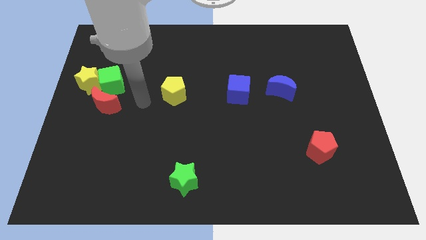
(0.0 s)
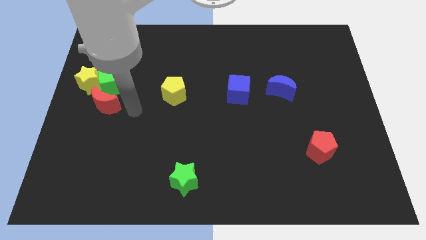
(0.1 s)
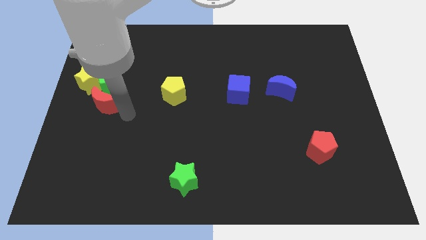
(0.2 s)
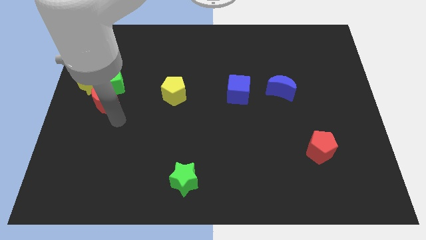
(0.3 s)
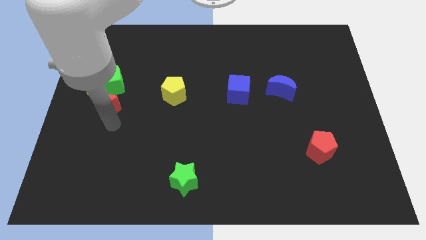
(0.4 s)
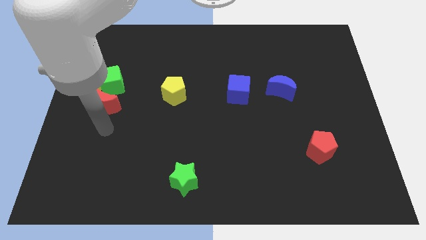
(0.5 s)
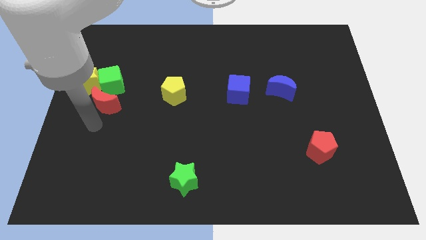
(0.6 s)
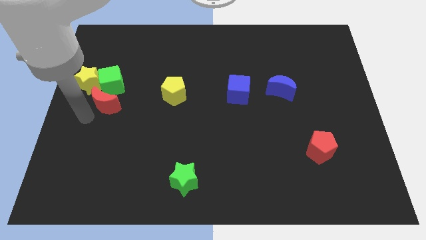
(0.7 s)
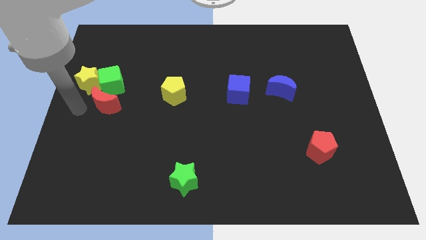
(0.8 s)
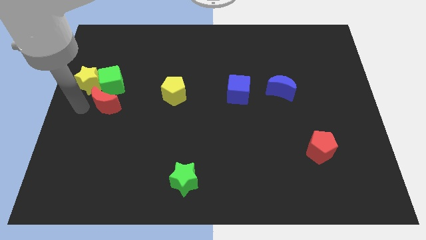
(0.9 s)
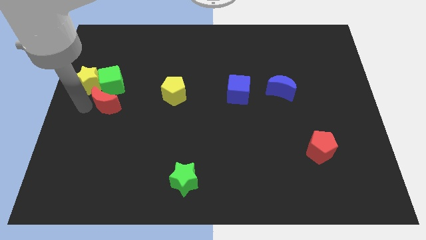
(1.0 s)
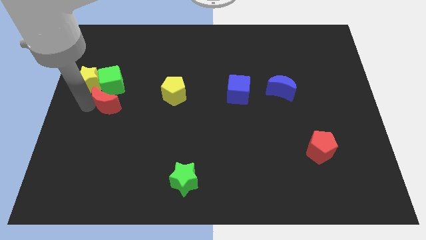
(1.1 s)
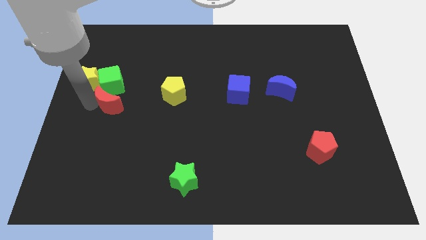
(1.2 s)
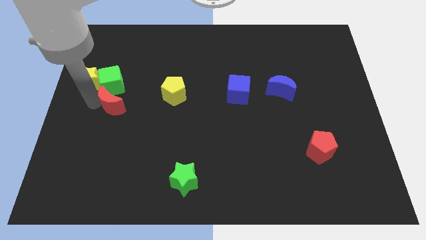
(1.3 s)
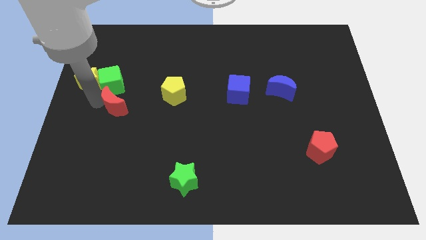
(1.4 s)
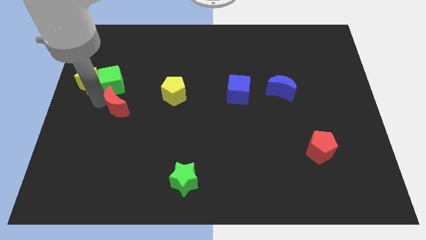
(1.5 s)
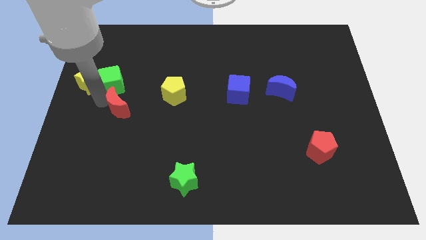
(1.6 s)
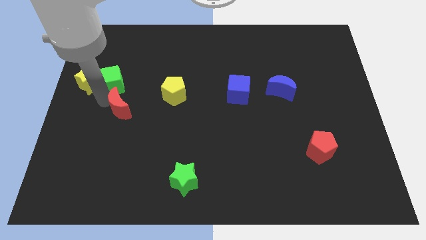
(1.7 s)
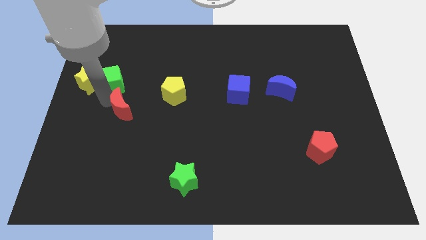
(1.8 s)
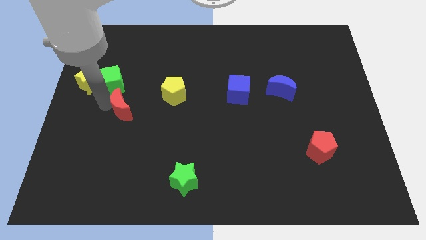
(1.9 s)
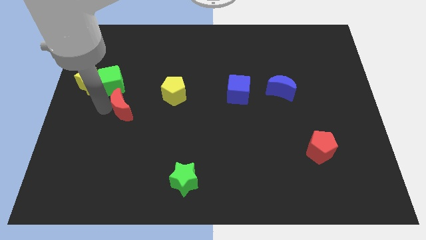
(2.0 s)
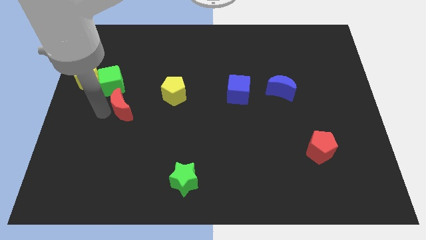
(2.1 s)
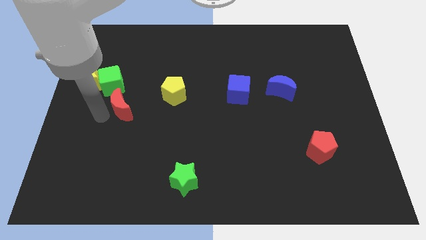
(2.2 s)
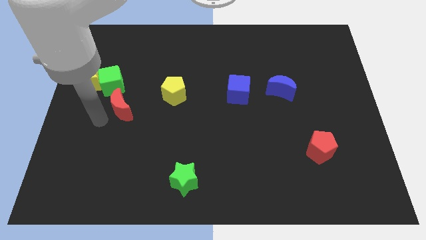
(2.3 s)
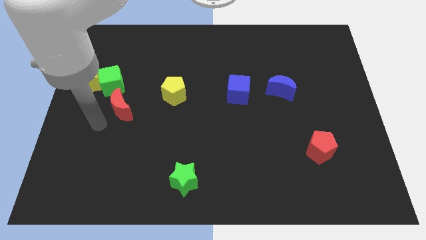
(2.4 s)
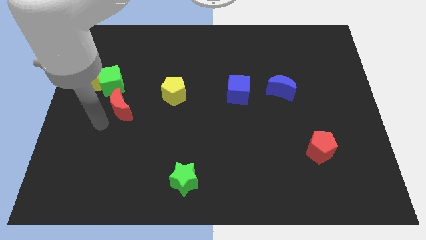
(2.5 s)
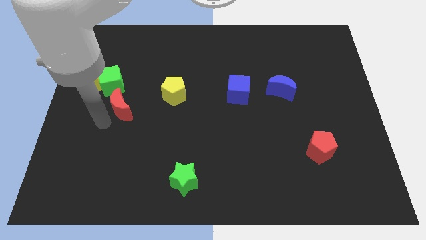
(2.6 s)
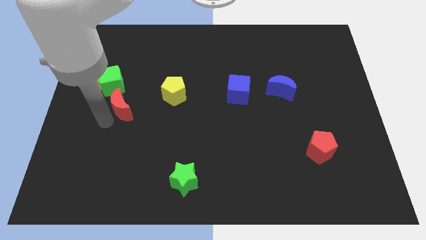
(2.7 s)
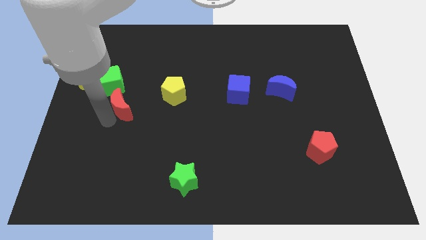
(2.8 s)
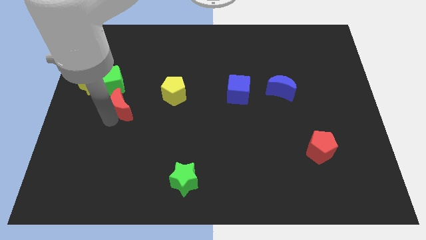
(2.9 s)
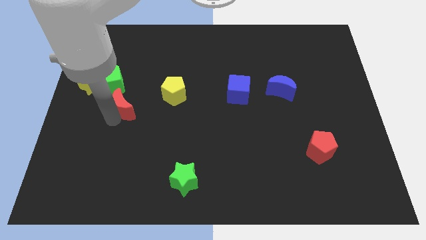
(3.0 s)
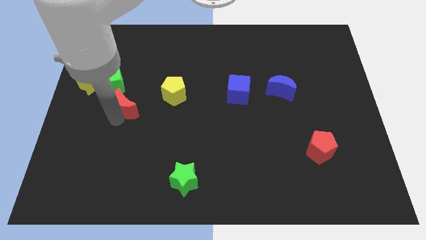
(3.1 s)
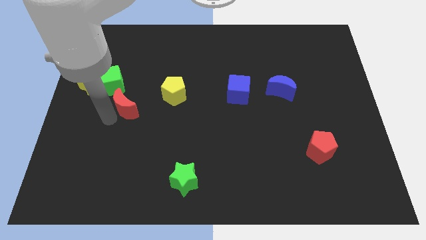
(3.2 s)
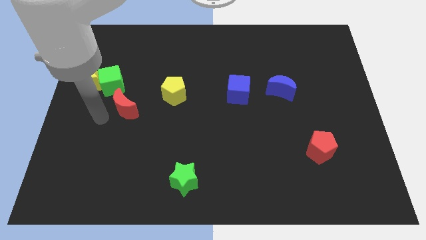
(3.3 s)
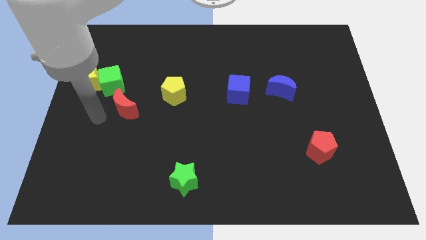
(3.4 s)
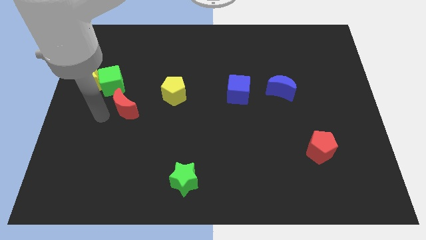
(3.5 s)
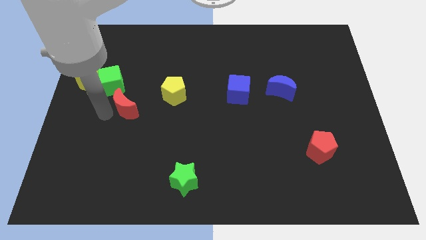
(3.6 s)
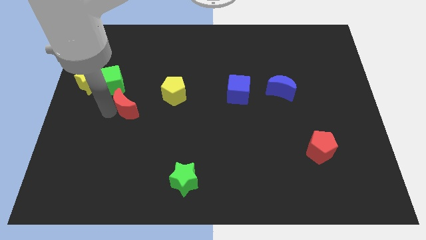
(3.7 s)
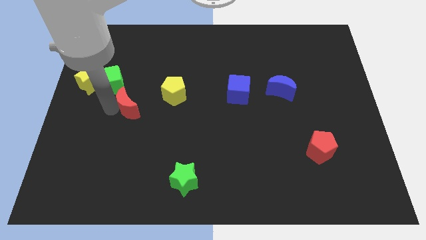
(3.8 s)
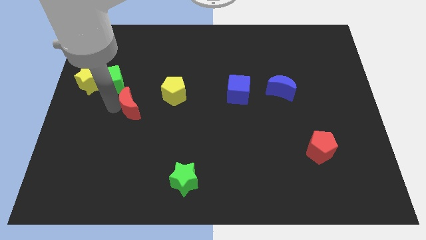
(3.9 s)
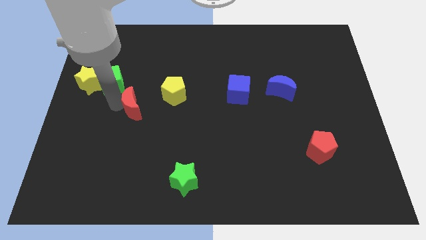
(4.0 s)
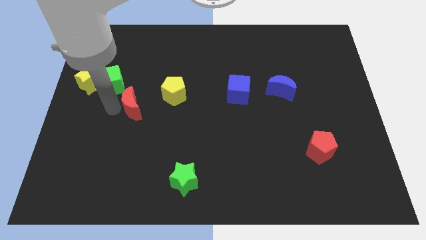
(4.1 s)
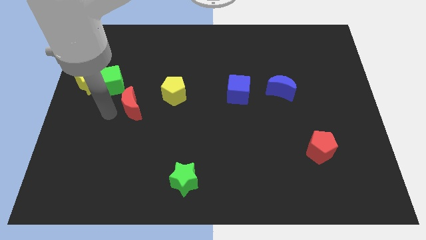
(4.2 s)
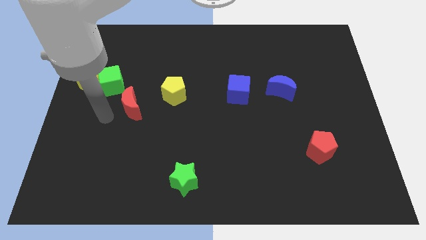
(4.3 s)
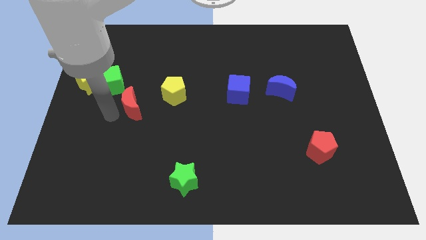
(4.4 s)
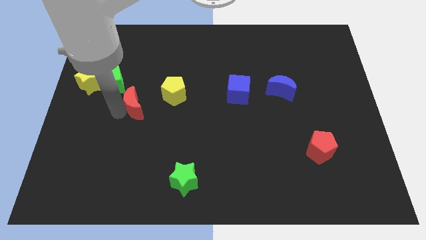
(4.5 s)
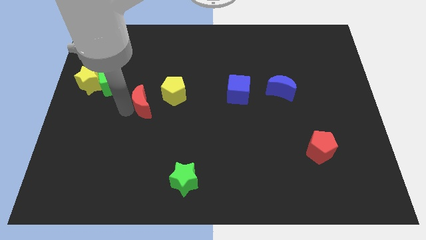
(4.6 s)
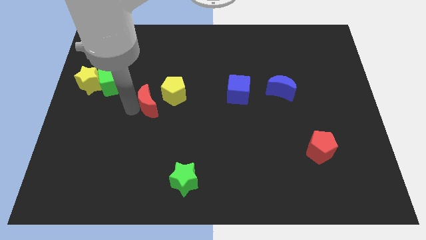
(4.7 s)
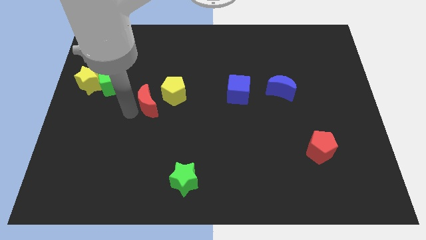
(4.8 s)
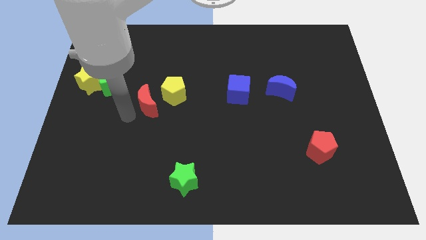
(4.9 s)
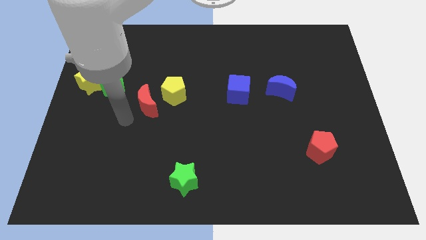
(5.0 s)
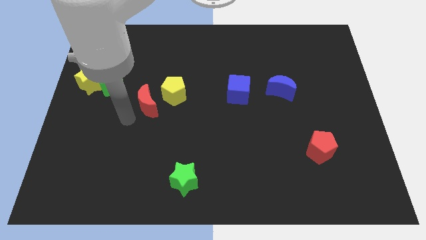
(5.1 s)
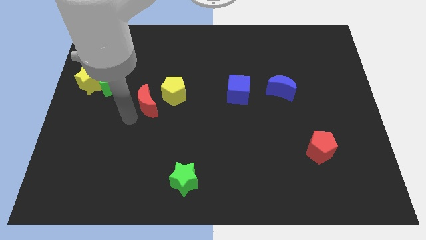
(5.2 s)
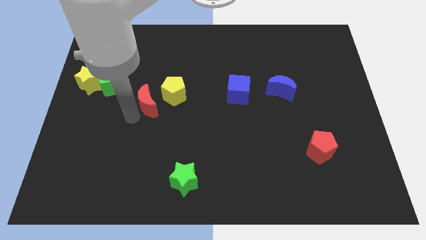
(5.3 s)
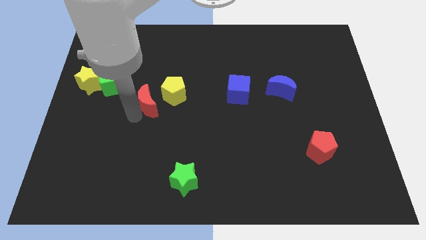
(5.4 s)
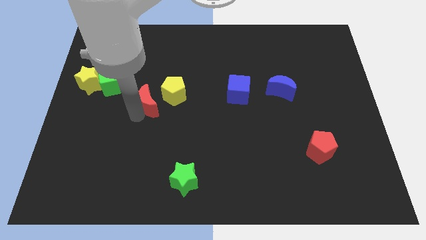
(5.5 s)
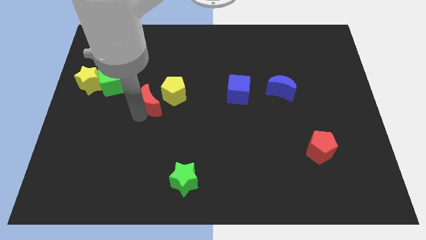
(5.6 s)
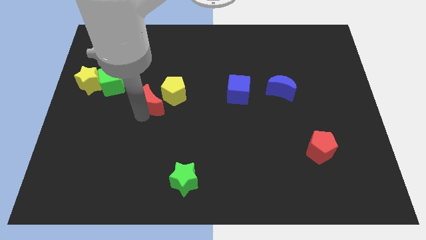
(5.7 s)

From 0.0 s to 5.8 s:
move the red moon towards the yellow pentagon

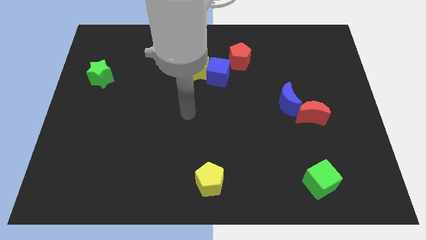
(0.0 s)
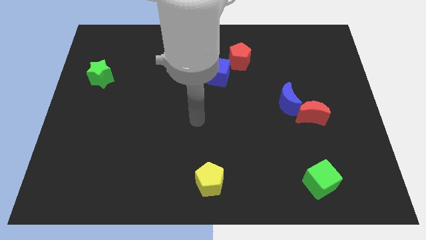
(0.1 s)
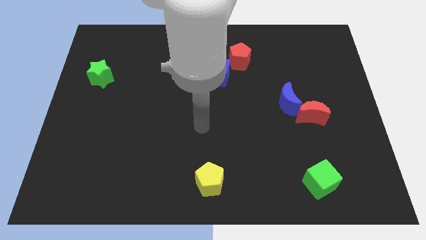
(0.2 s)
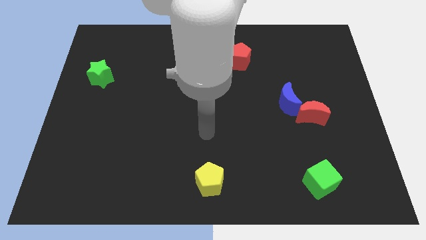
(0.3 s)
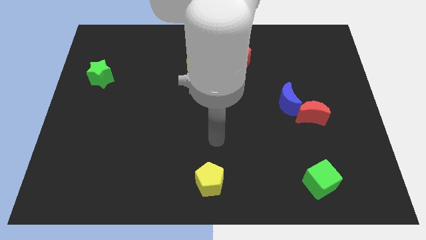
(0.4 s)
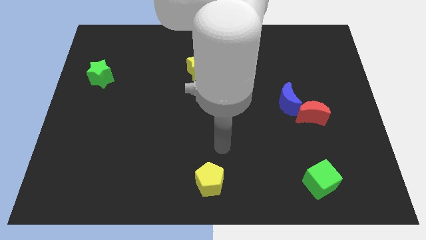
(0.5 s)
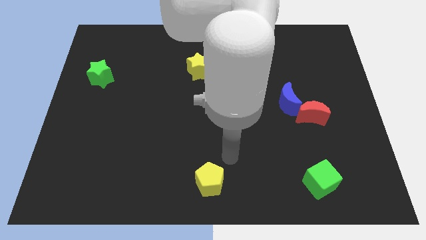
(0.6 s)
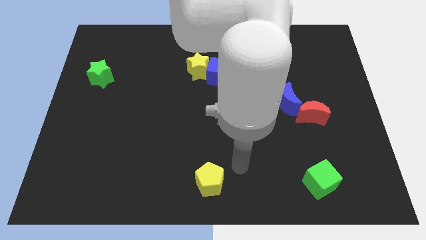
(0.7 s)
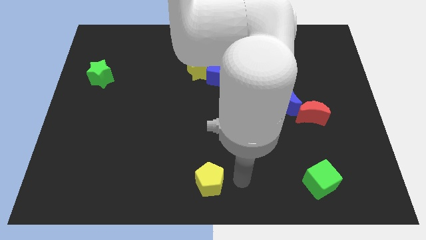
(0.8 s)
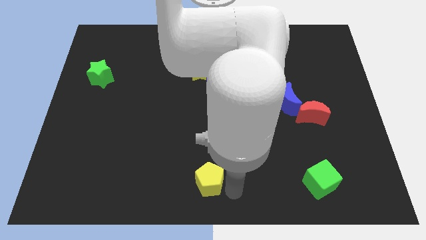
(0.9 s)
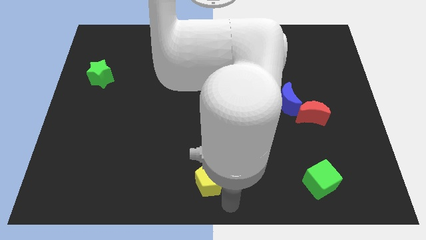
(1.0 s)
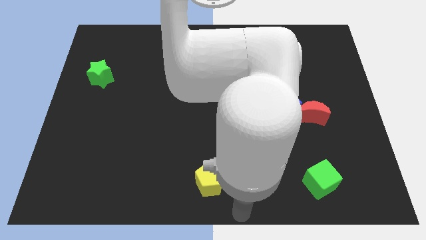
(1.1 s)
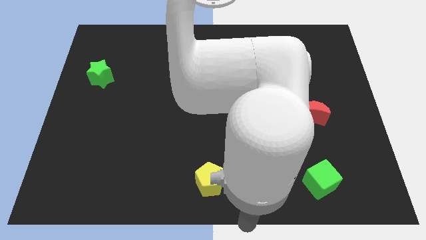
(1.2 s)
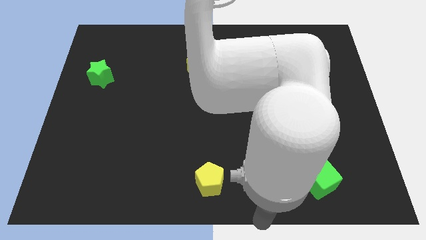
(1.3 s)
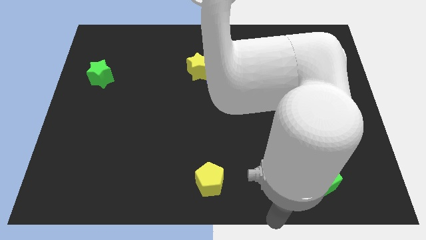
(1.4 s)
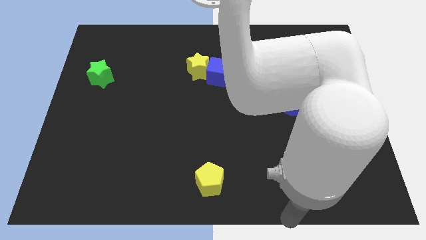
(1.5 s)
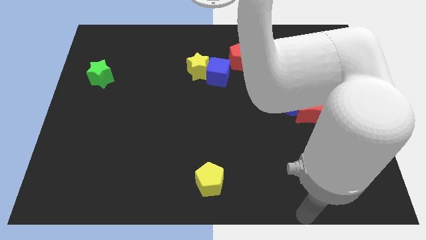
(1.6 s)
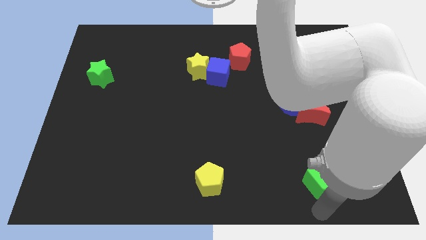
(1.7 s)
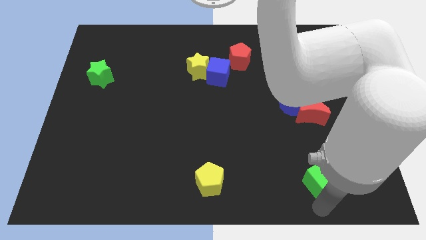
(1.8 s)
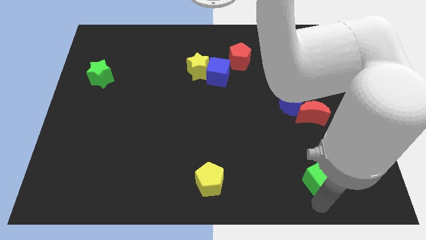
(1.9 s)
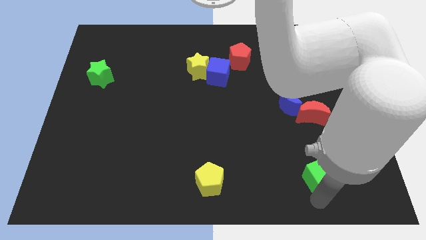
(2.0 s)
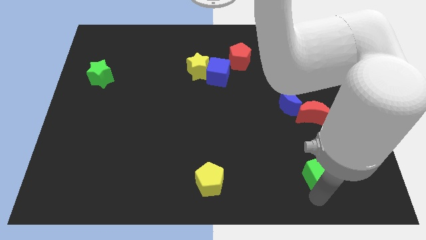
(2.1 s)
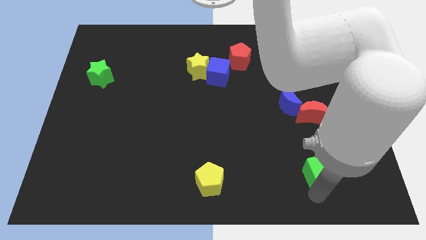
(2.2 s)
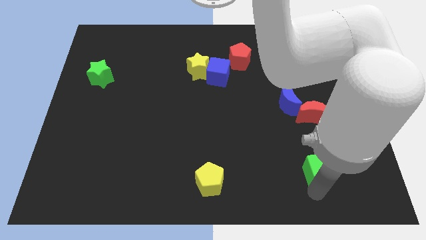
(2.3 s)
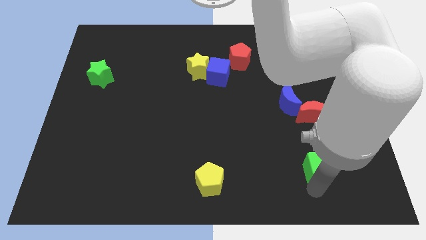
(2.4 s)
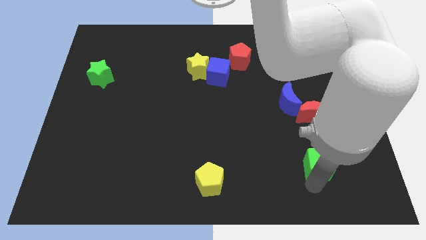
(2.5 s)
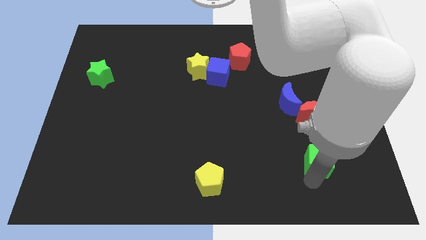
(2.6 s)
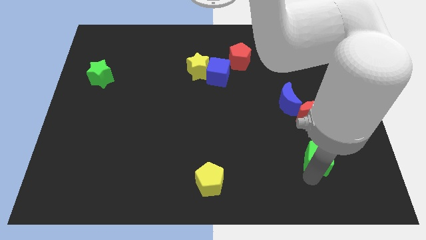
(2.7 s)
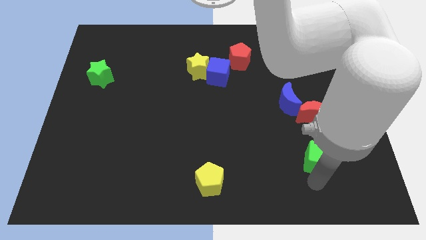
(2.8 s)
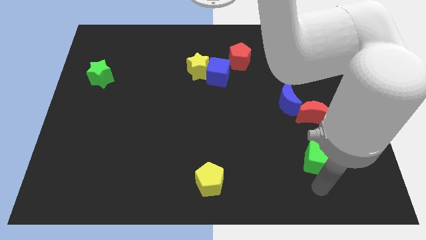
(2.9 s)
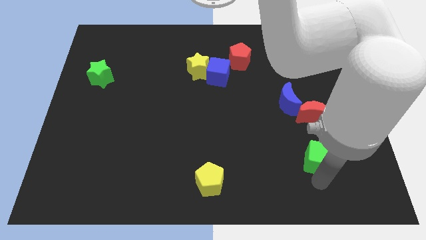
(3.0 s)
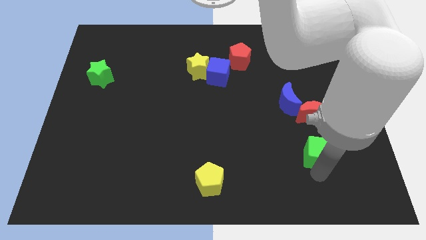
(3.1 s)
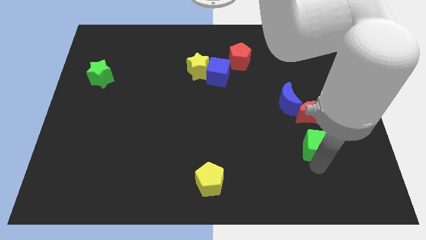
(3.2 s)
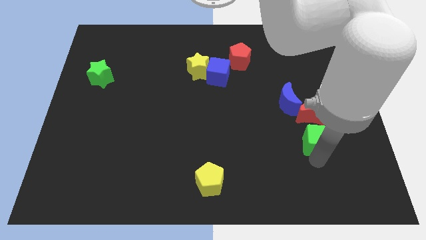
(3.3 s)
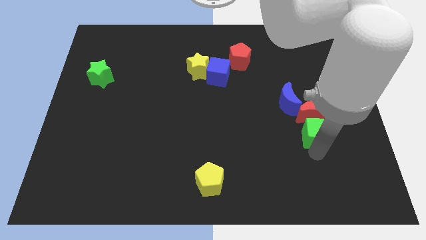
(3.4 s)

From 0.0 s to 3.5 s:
put the green cube towards the red moon
